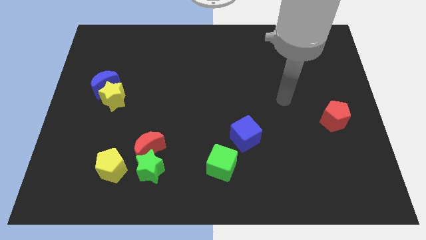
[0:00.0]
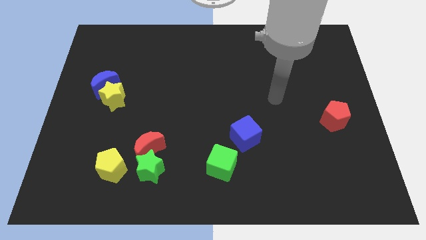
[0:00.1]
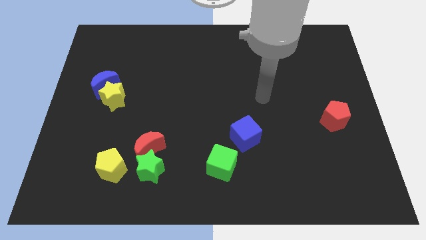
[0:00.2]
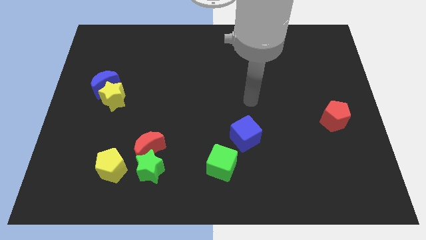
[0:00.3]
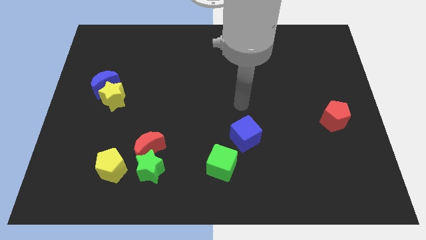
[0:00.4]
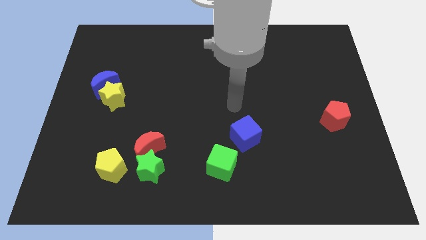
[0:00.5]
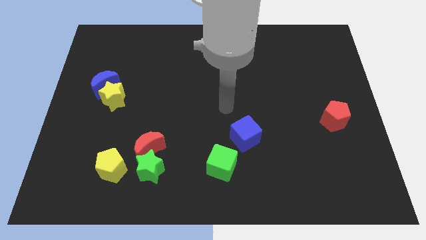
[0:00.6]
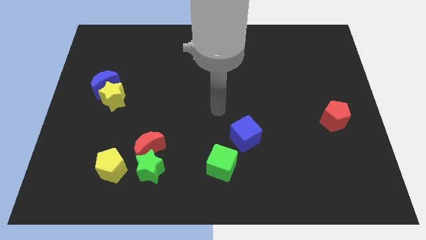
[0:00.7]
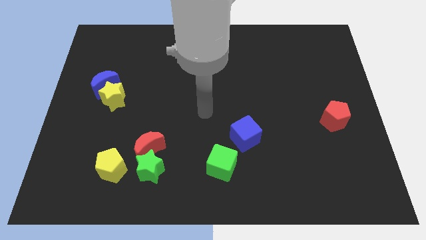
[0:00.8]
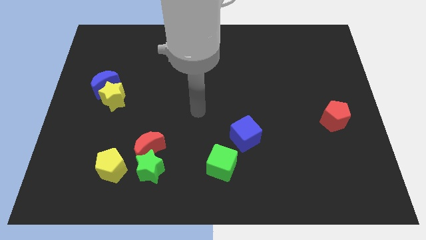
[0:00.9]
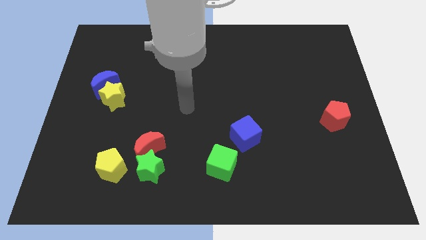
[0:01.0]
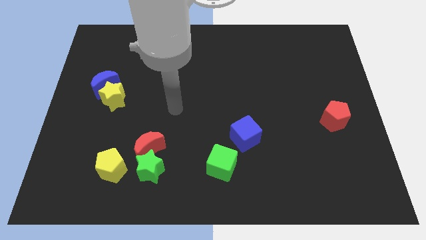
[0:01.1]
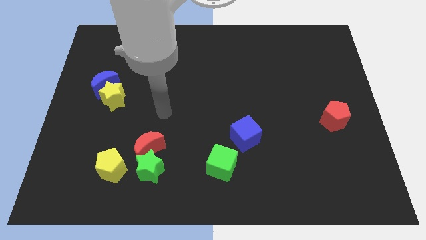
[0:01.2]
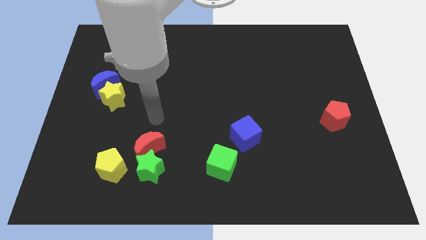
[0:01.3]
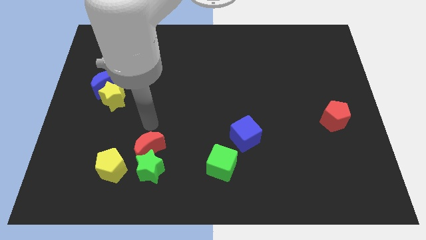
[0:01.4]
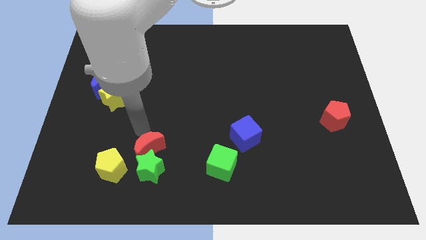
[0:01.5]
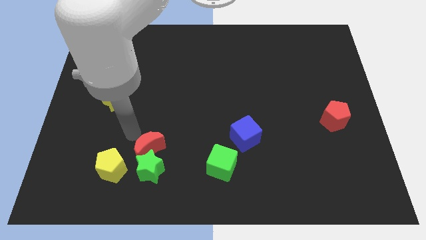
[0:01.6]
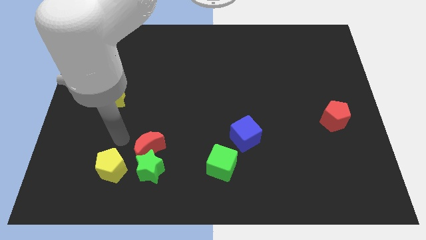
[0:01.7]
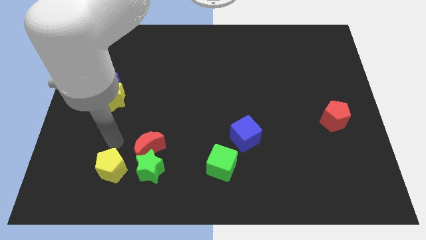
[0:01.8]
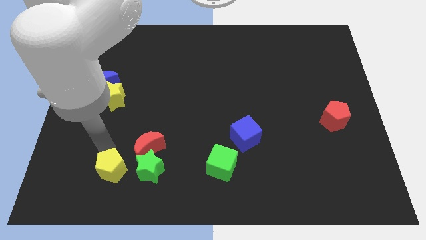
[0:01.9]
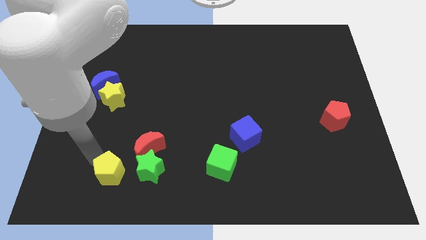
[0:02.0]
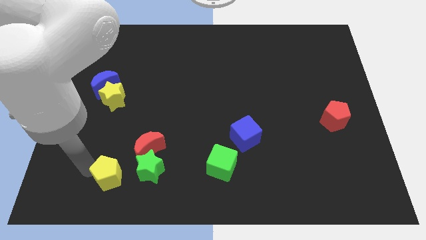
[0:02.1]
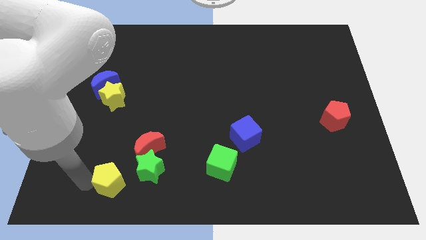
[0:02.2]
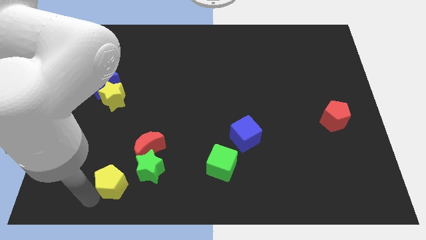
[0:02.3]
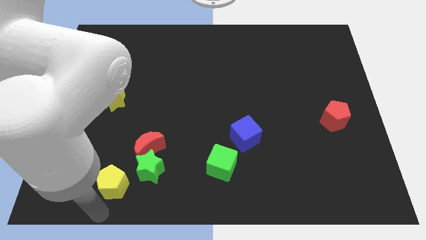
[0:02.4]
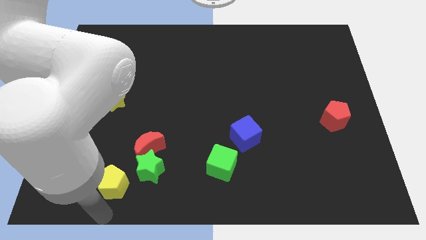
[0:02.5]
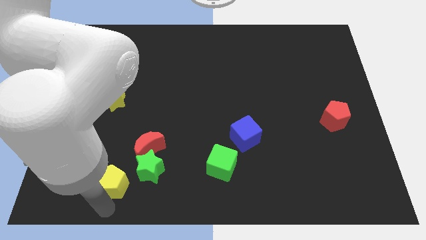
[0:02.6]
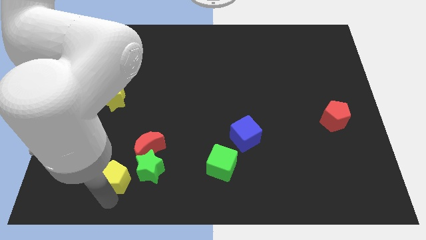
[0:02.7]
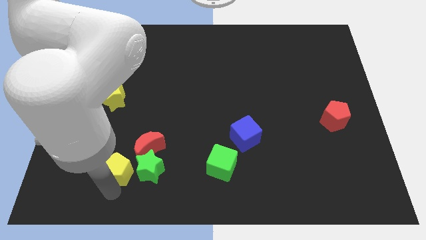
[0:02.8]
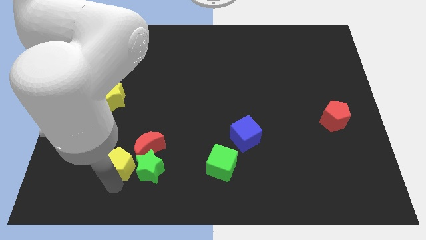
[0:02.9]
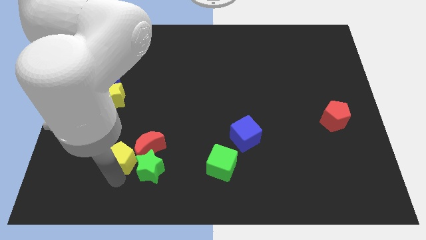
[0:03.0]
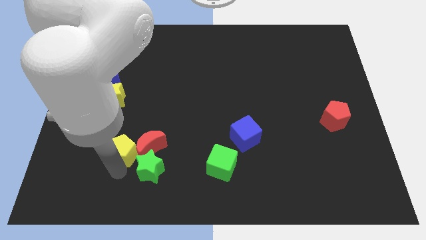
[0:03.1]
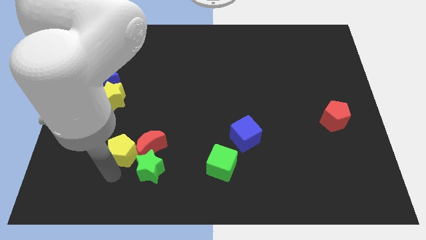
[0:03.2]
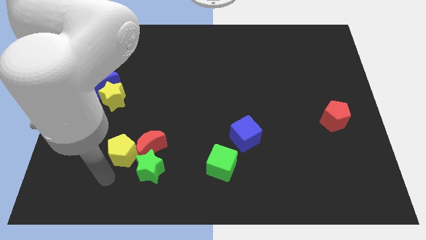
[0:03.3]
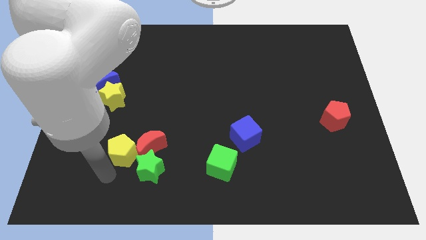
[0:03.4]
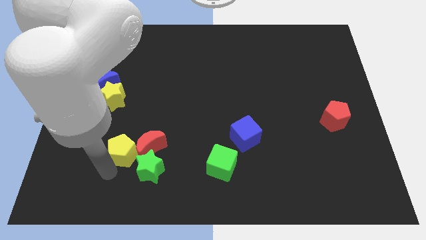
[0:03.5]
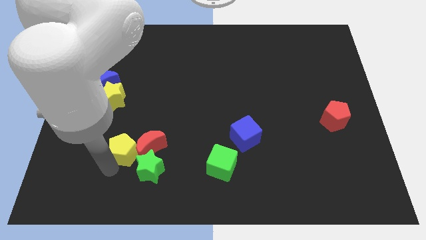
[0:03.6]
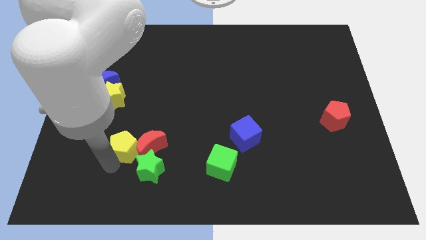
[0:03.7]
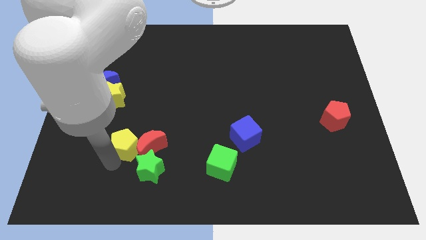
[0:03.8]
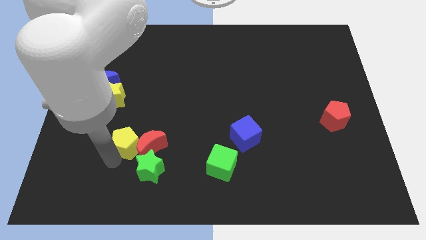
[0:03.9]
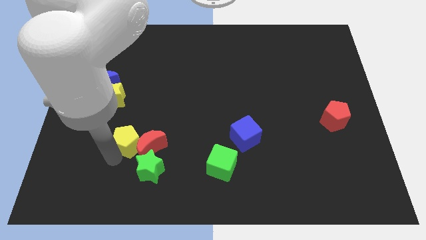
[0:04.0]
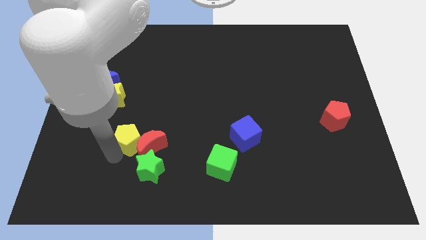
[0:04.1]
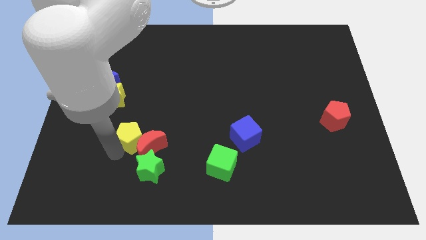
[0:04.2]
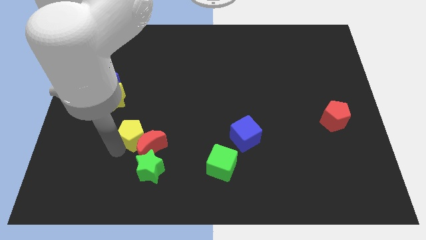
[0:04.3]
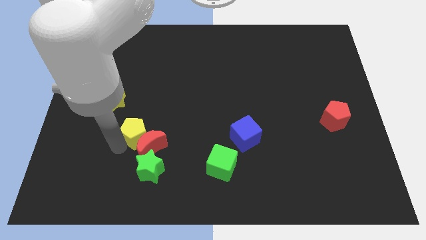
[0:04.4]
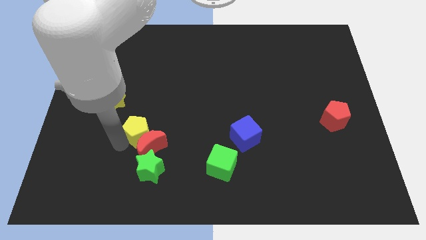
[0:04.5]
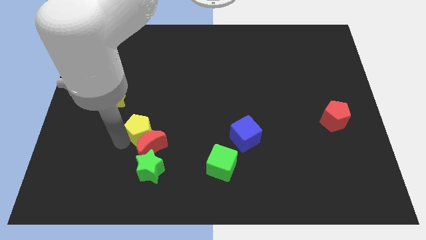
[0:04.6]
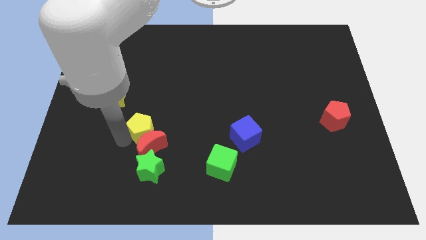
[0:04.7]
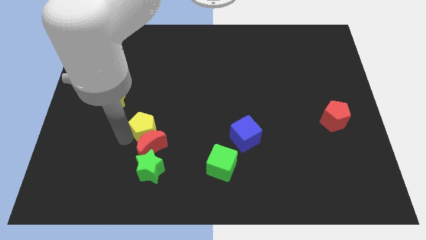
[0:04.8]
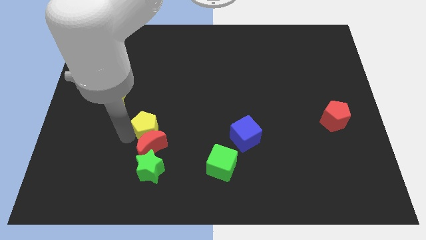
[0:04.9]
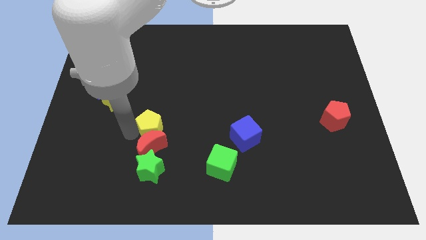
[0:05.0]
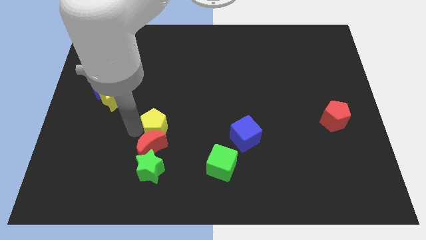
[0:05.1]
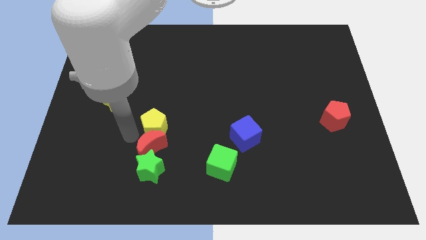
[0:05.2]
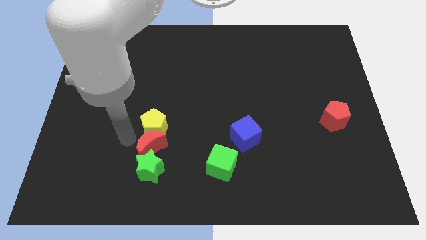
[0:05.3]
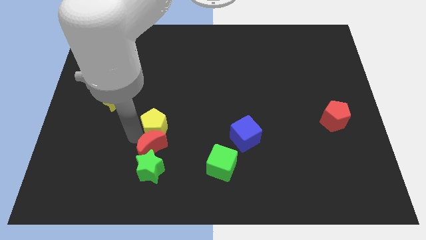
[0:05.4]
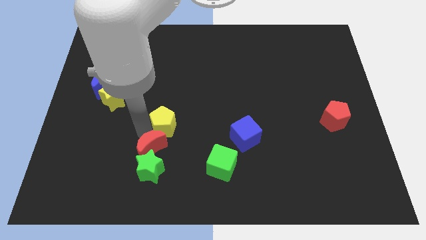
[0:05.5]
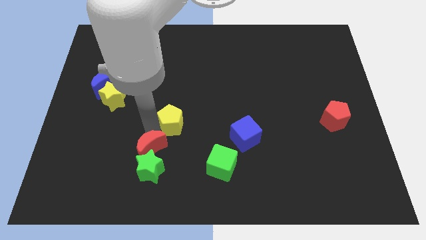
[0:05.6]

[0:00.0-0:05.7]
put the yellow pentagon to the center of the board

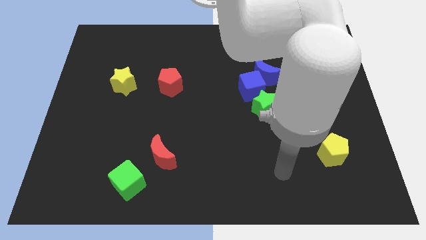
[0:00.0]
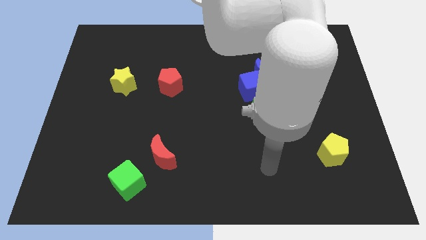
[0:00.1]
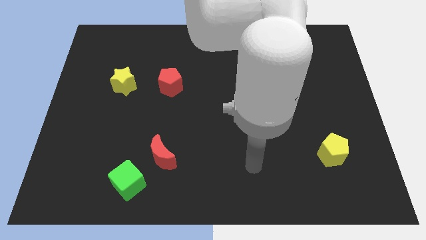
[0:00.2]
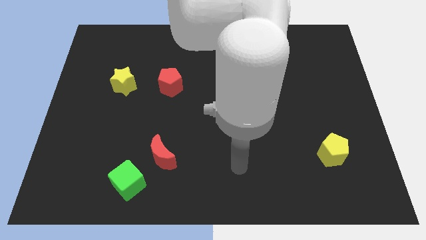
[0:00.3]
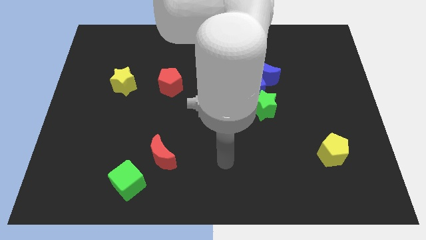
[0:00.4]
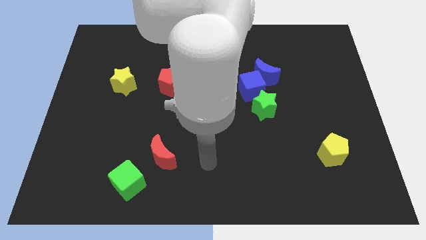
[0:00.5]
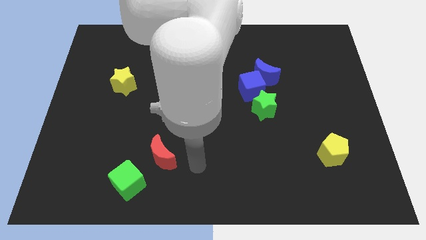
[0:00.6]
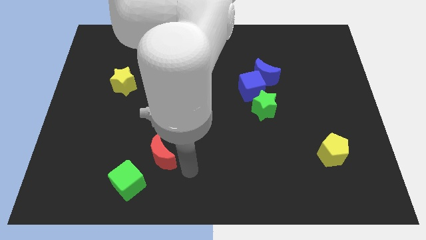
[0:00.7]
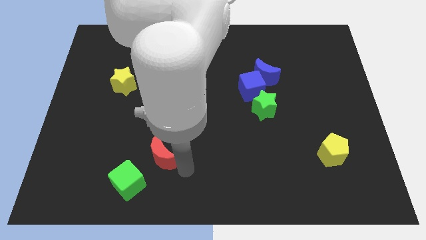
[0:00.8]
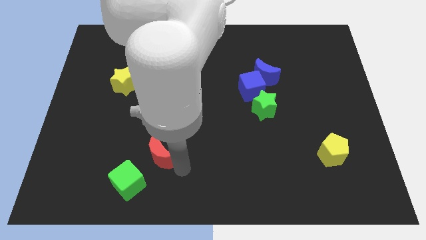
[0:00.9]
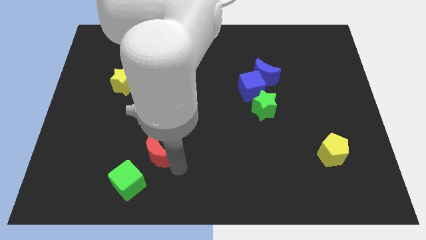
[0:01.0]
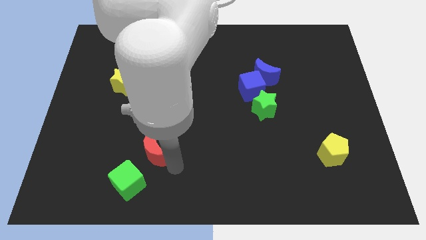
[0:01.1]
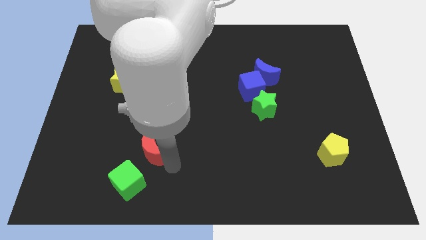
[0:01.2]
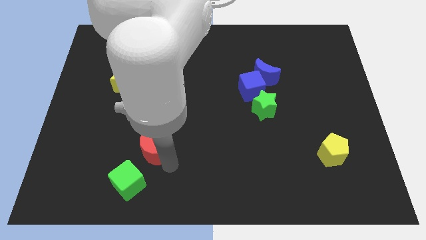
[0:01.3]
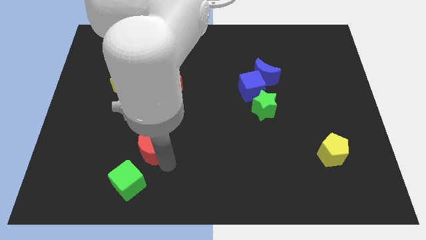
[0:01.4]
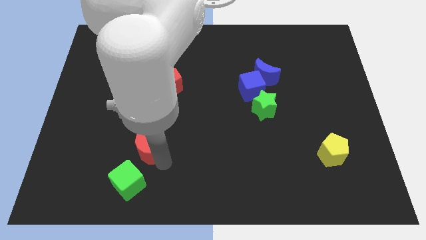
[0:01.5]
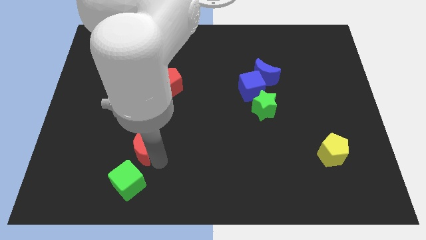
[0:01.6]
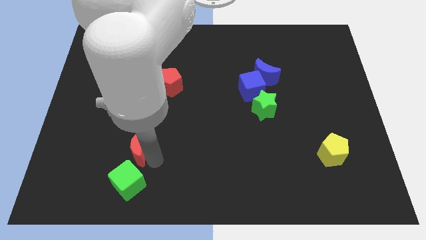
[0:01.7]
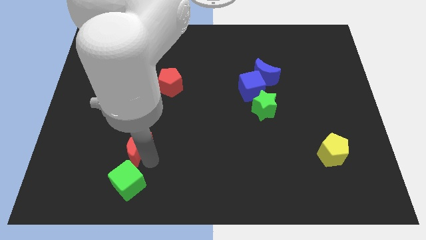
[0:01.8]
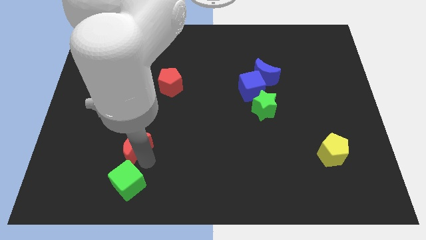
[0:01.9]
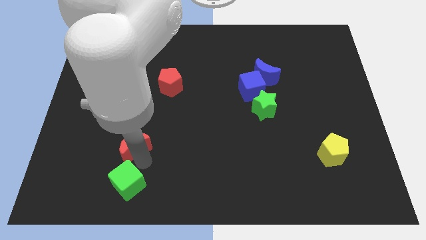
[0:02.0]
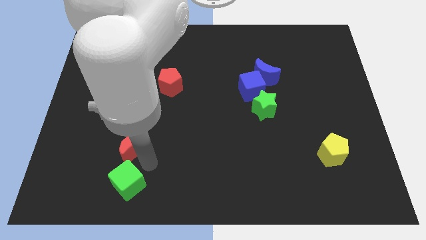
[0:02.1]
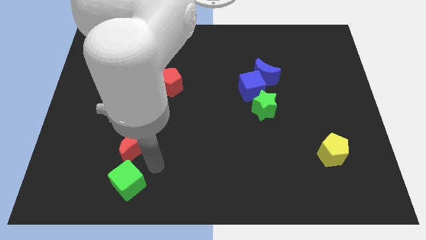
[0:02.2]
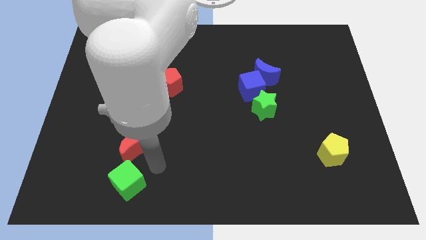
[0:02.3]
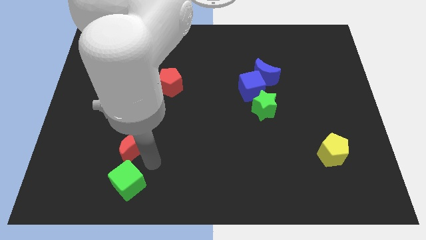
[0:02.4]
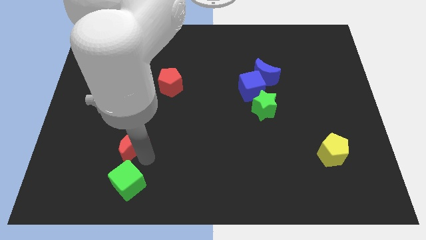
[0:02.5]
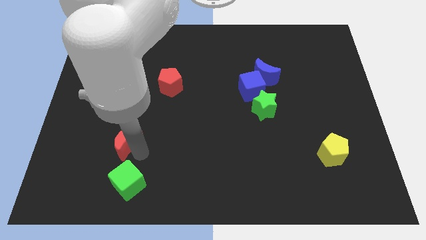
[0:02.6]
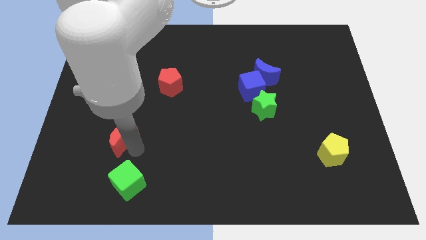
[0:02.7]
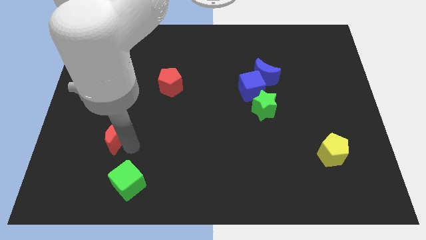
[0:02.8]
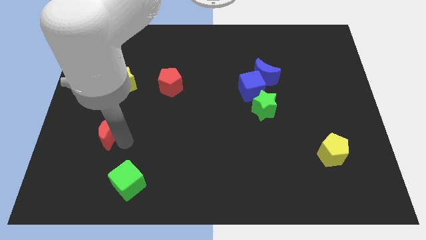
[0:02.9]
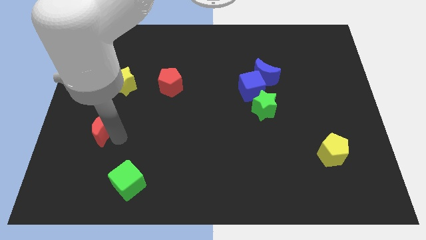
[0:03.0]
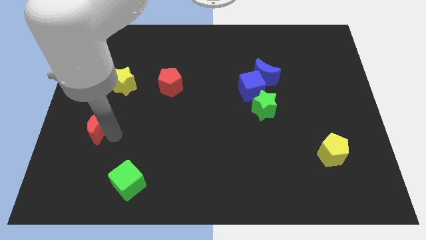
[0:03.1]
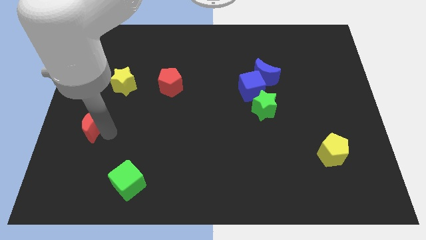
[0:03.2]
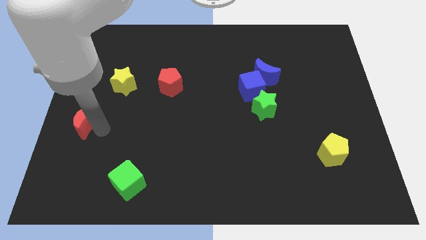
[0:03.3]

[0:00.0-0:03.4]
slide the red moon to the center left
